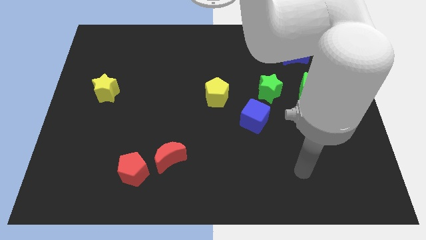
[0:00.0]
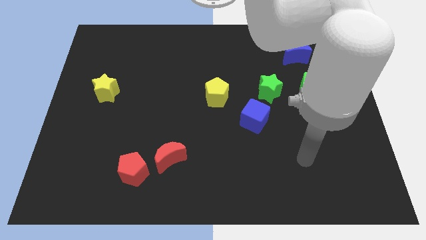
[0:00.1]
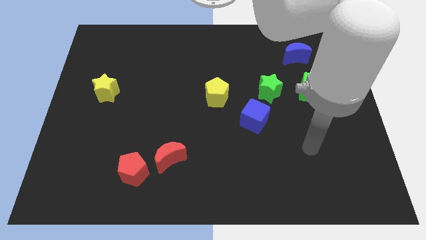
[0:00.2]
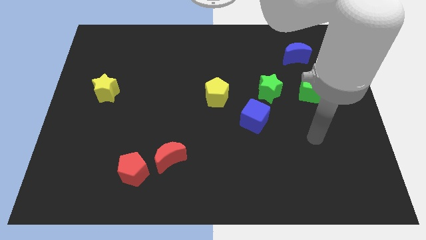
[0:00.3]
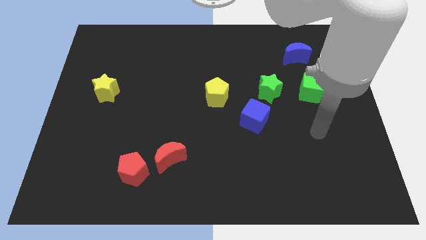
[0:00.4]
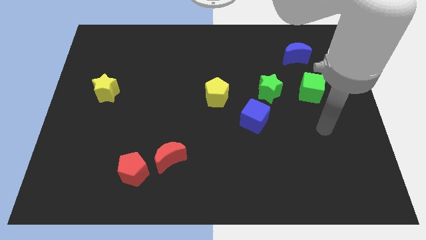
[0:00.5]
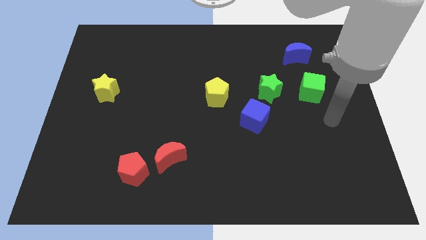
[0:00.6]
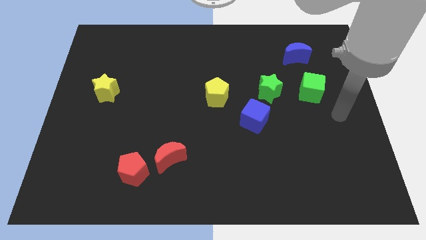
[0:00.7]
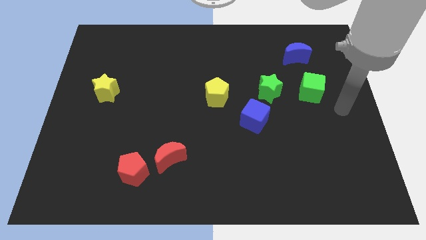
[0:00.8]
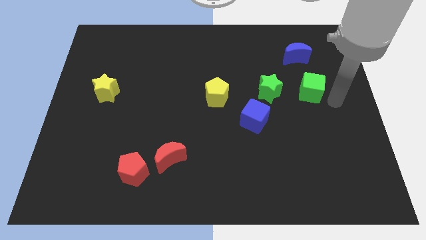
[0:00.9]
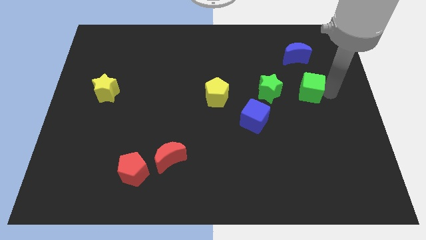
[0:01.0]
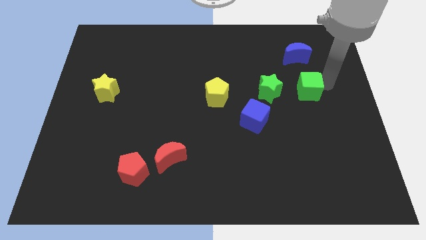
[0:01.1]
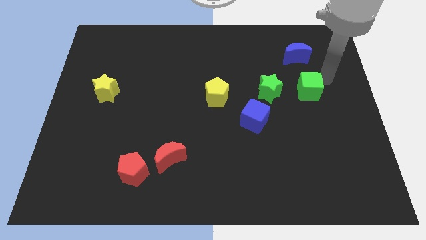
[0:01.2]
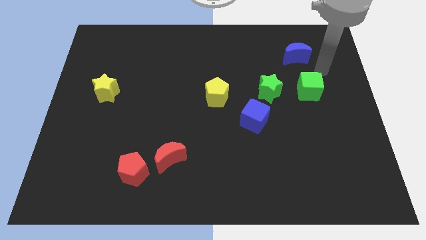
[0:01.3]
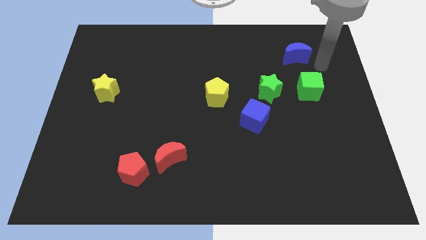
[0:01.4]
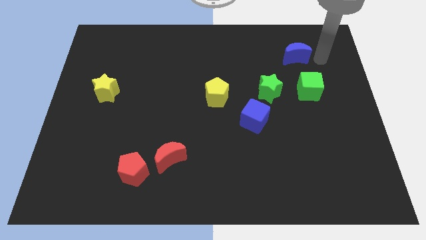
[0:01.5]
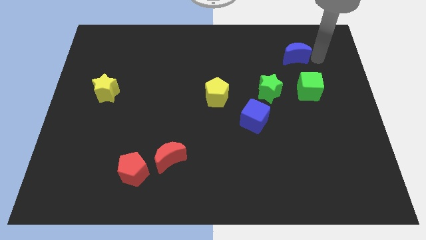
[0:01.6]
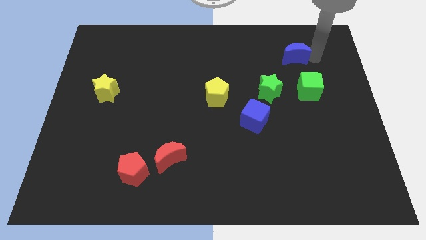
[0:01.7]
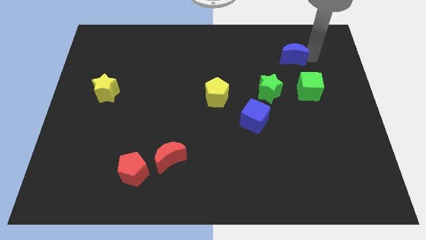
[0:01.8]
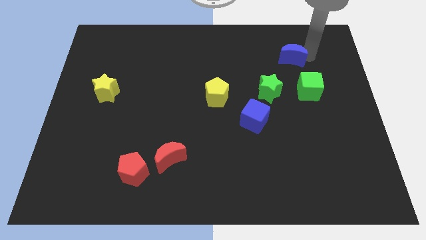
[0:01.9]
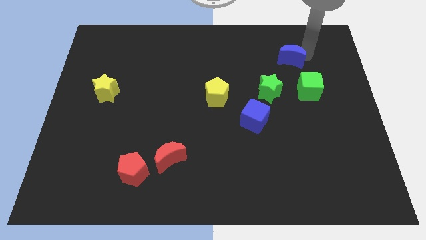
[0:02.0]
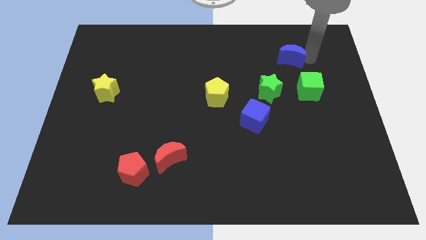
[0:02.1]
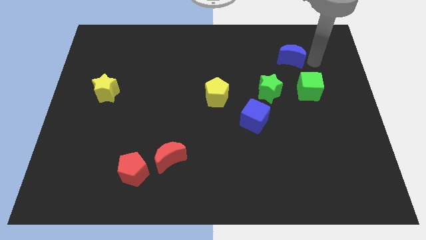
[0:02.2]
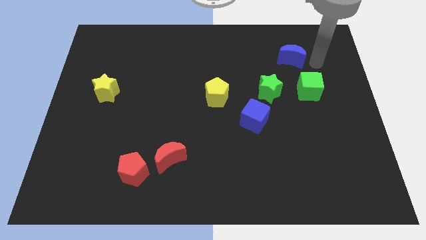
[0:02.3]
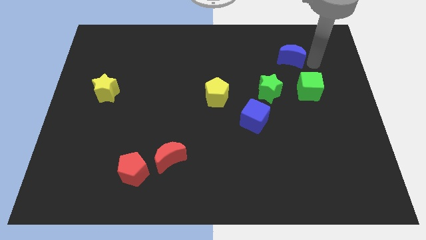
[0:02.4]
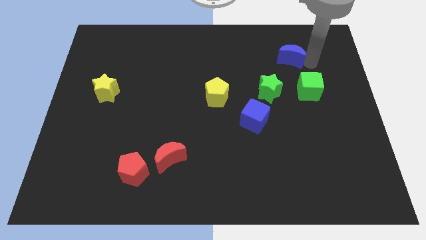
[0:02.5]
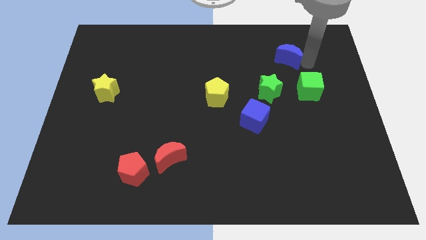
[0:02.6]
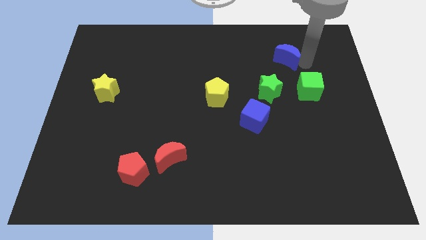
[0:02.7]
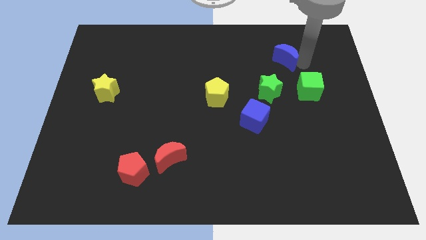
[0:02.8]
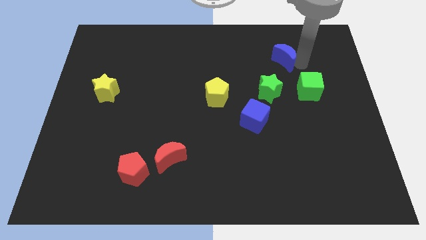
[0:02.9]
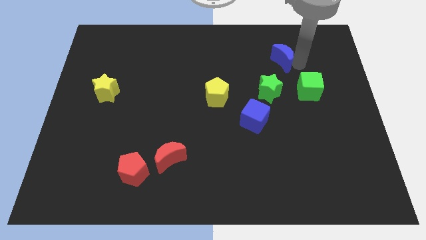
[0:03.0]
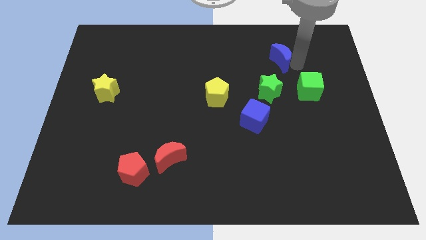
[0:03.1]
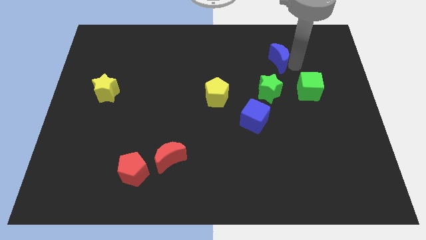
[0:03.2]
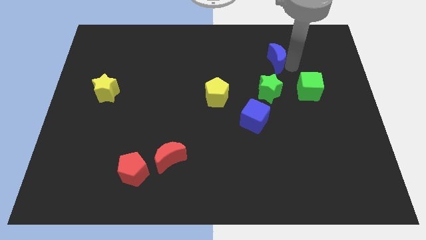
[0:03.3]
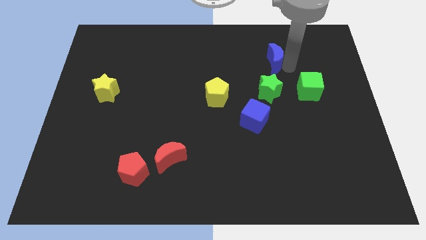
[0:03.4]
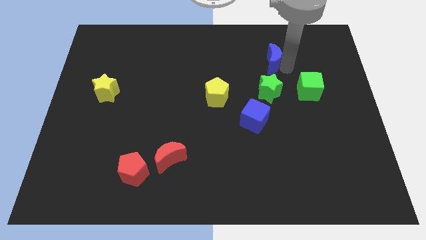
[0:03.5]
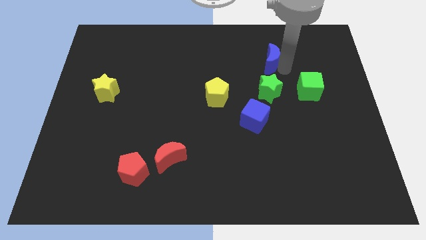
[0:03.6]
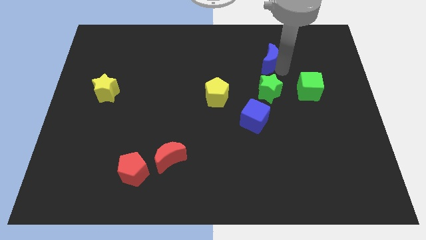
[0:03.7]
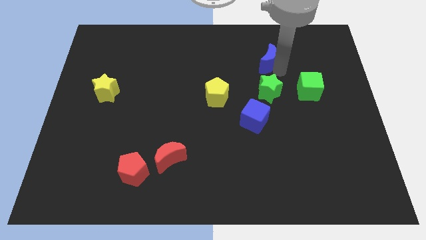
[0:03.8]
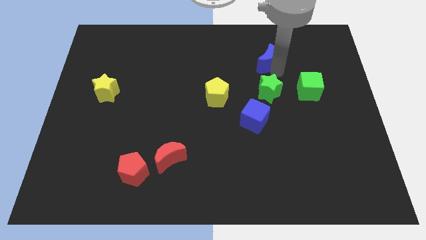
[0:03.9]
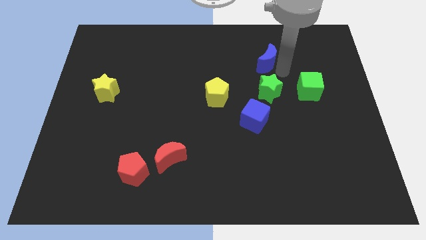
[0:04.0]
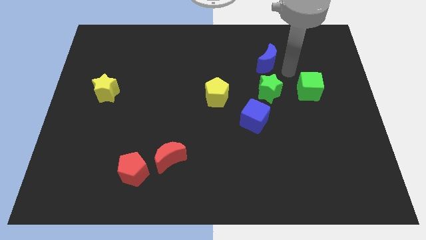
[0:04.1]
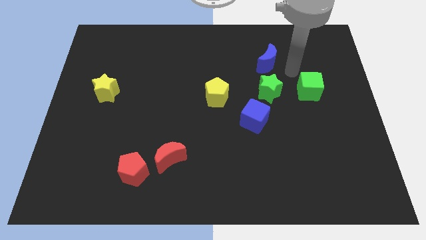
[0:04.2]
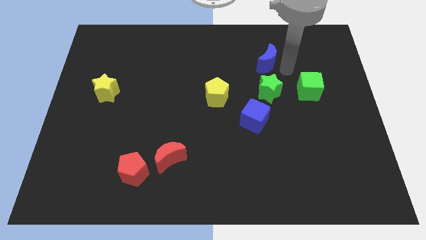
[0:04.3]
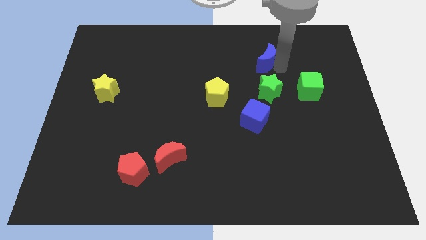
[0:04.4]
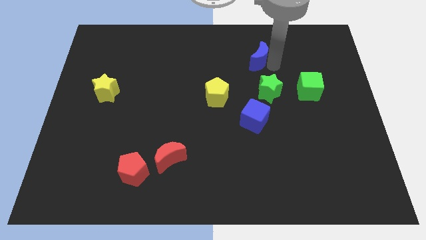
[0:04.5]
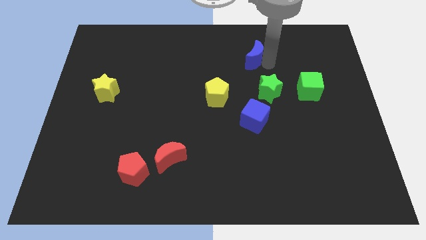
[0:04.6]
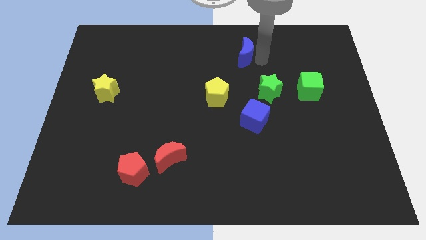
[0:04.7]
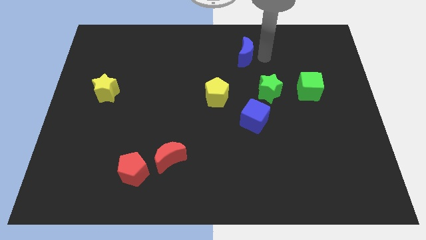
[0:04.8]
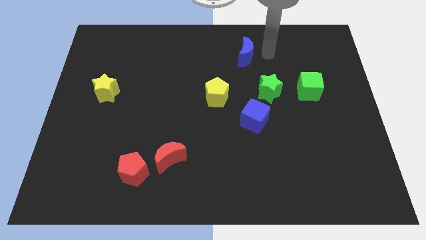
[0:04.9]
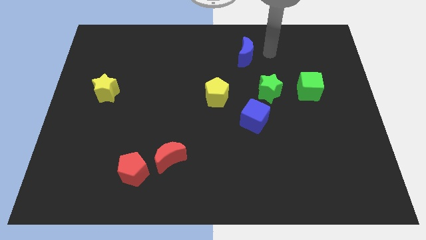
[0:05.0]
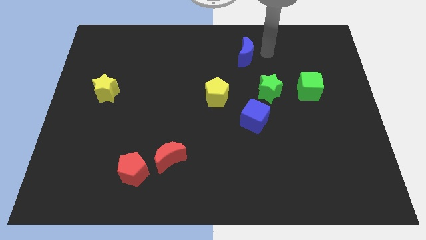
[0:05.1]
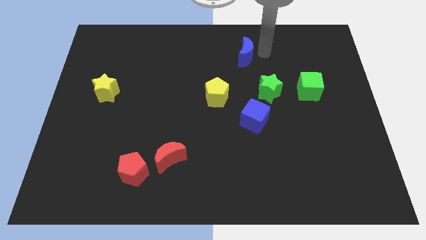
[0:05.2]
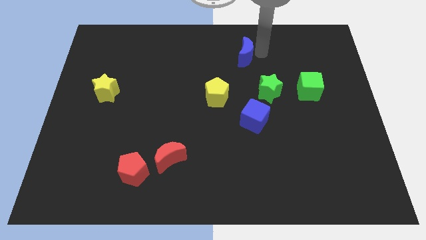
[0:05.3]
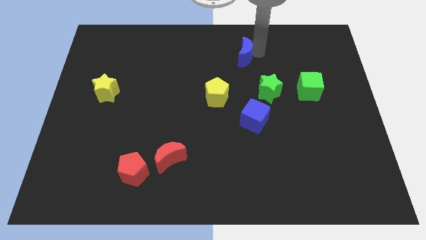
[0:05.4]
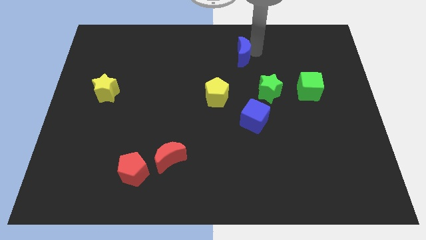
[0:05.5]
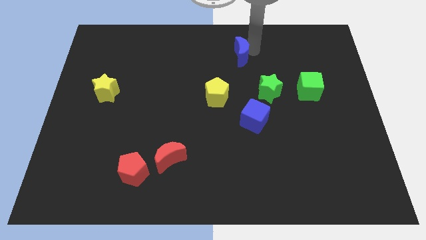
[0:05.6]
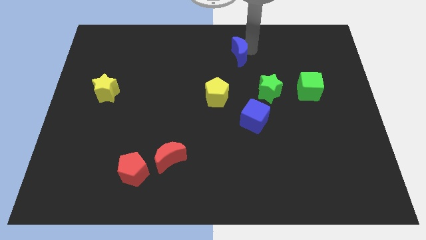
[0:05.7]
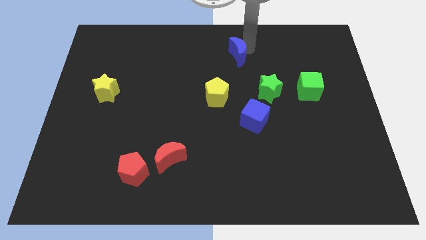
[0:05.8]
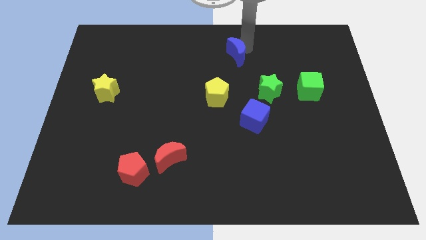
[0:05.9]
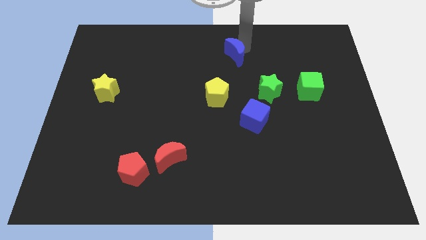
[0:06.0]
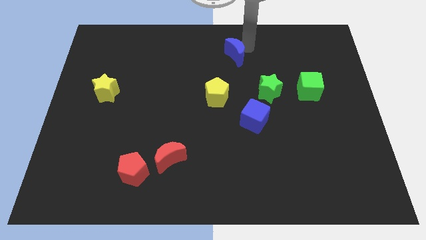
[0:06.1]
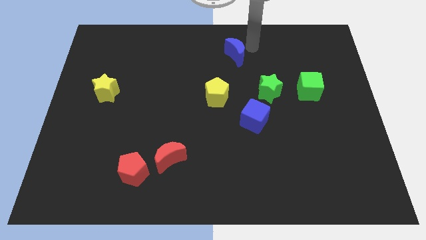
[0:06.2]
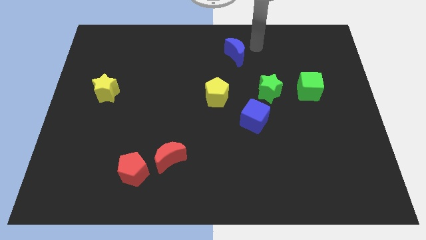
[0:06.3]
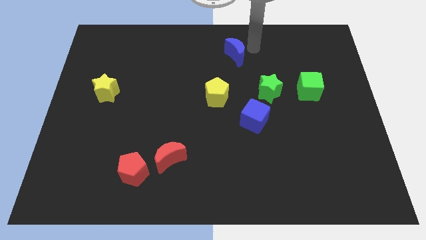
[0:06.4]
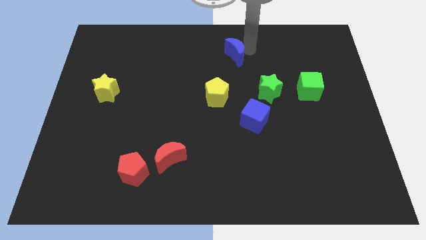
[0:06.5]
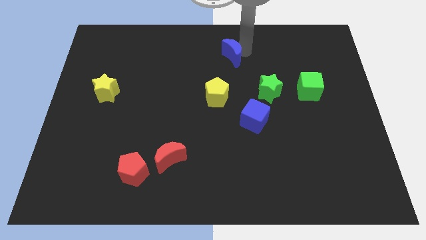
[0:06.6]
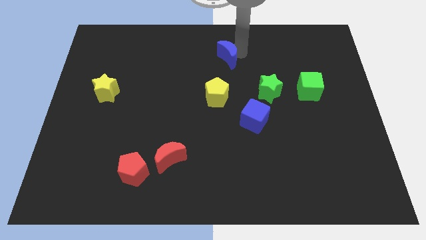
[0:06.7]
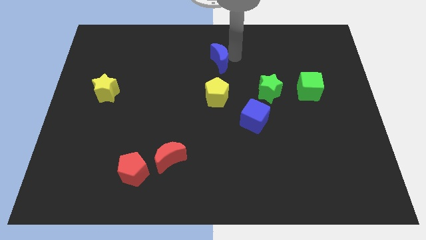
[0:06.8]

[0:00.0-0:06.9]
push the blue moon left

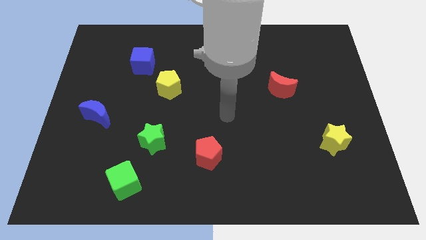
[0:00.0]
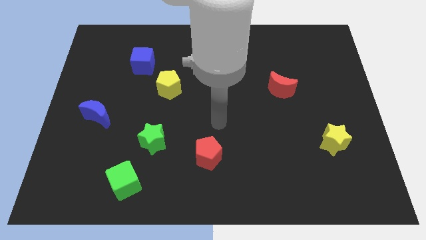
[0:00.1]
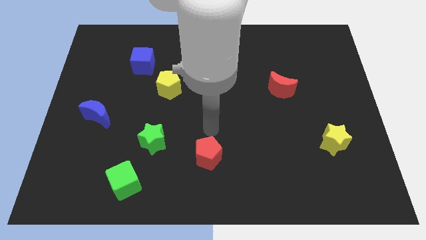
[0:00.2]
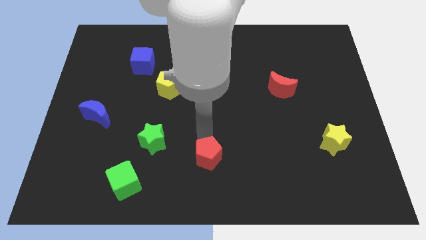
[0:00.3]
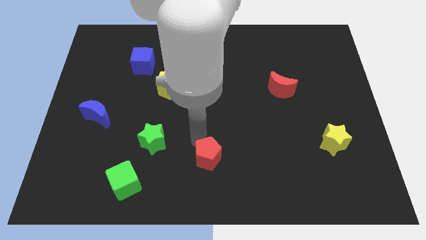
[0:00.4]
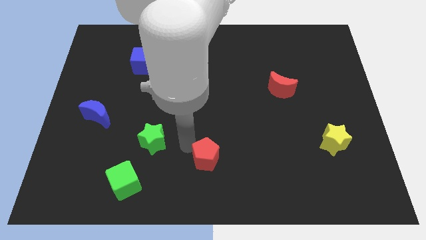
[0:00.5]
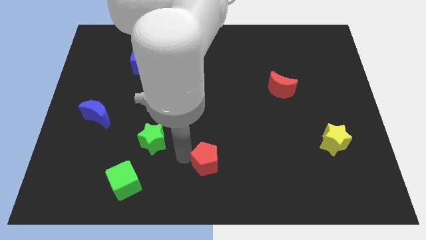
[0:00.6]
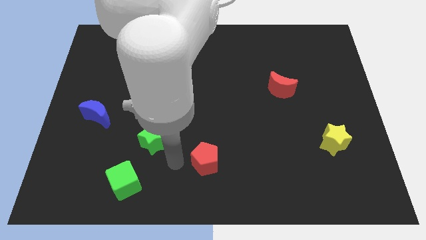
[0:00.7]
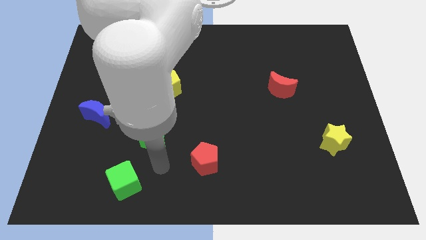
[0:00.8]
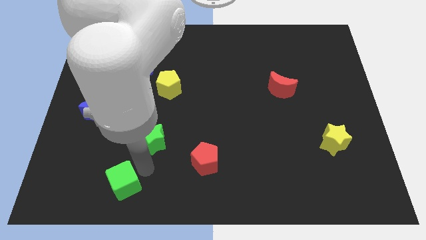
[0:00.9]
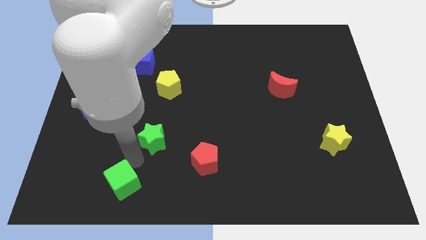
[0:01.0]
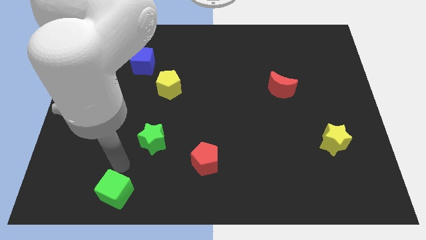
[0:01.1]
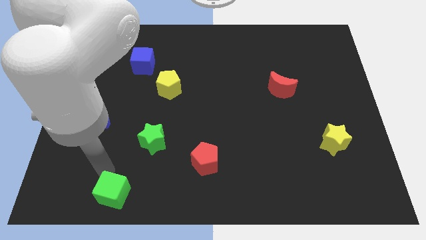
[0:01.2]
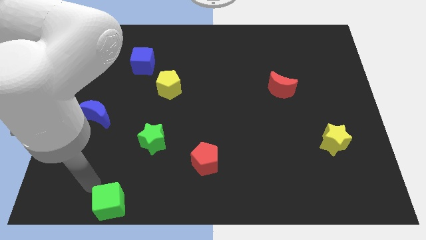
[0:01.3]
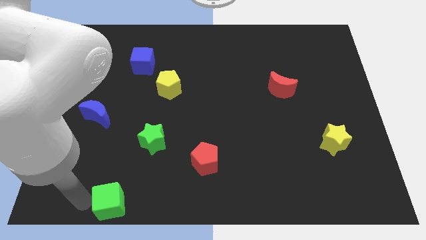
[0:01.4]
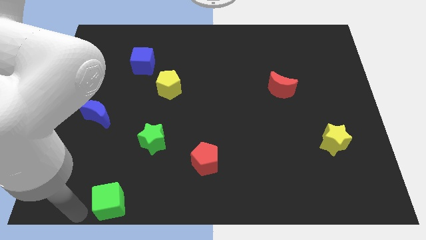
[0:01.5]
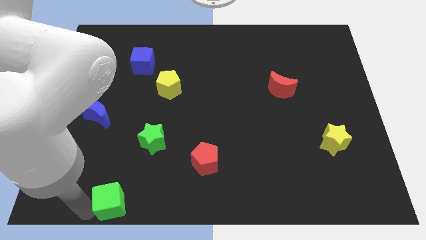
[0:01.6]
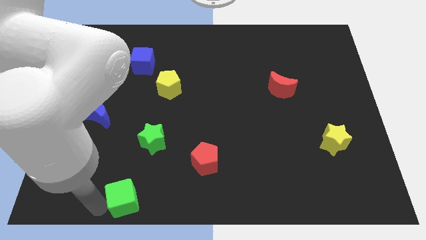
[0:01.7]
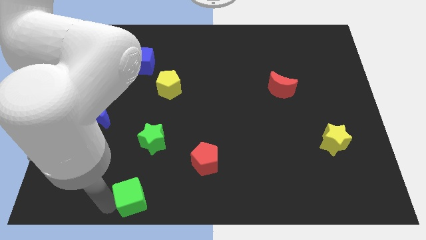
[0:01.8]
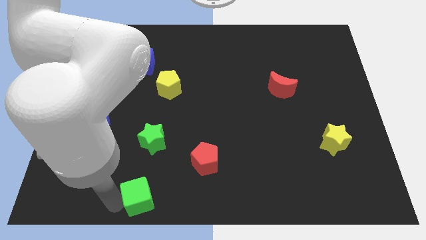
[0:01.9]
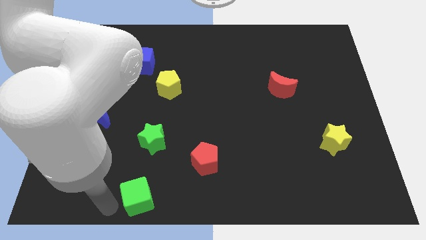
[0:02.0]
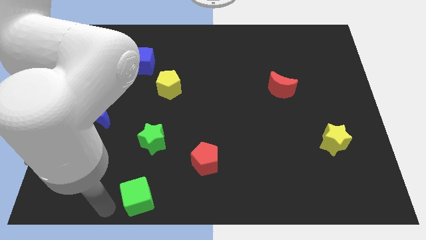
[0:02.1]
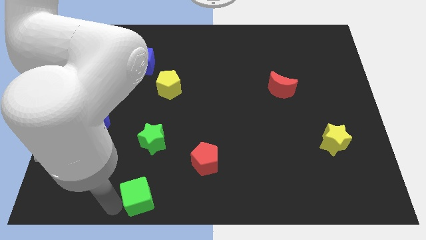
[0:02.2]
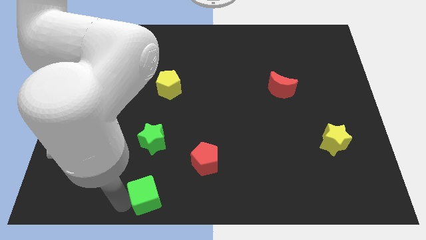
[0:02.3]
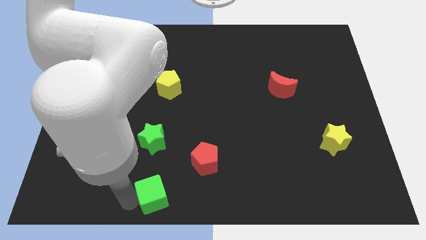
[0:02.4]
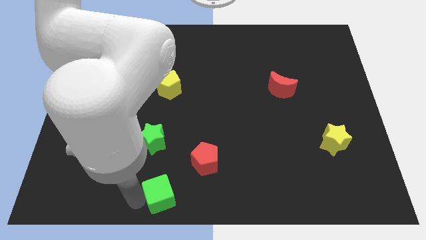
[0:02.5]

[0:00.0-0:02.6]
push the green cube a little right
